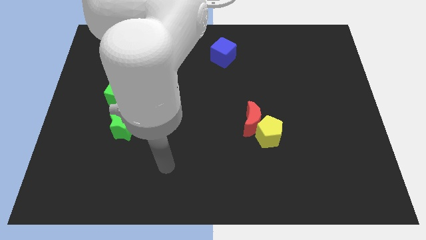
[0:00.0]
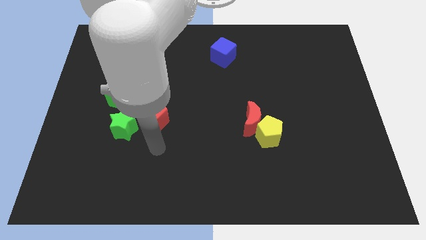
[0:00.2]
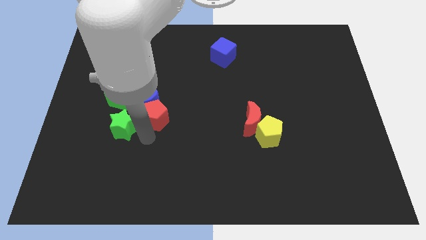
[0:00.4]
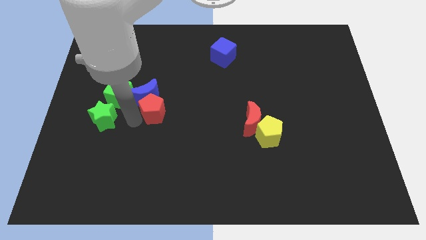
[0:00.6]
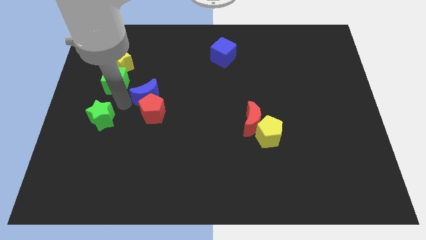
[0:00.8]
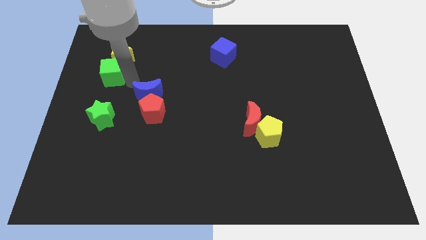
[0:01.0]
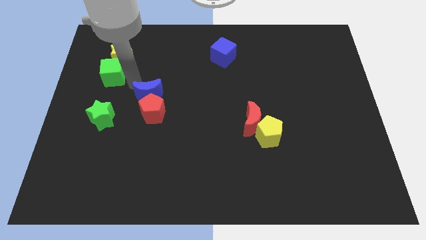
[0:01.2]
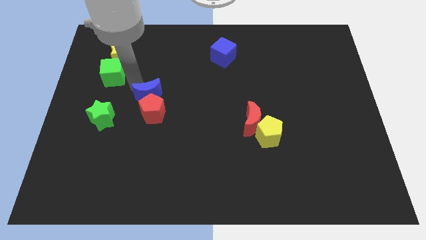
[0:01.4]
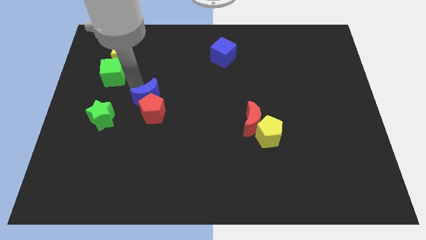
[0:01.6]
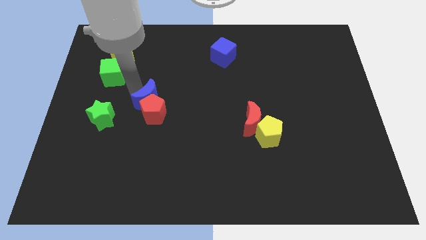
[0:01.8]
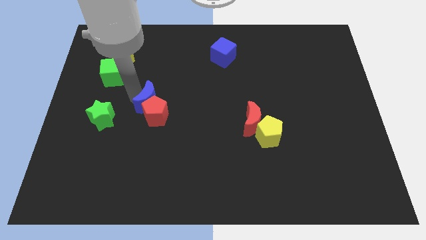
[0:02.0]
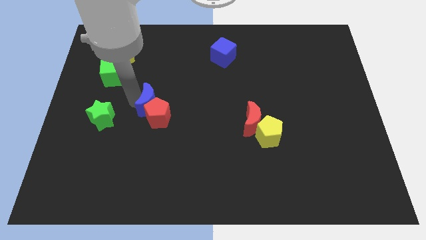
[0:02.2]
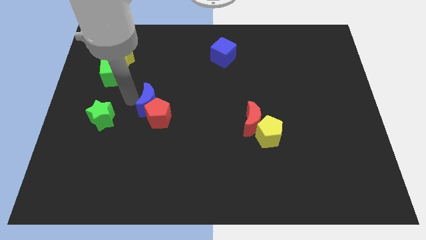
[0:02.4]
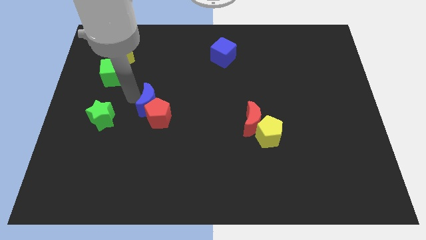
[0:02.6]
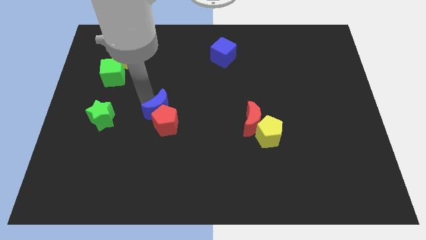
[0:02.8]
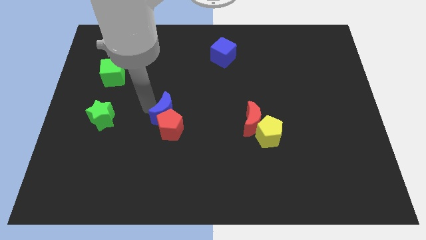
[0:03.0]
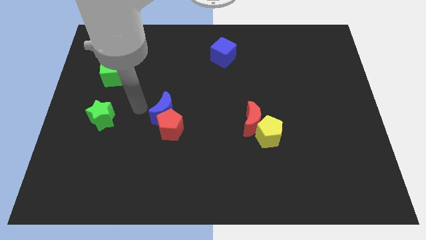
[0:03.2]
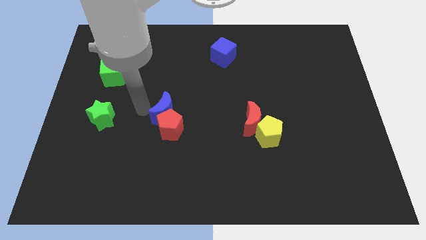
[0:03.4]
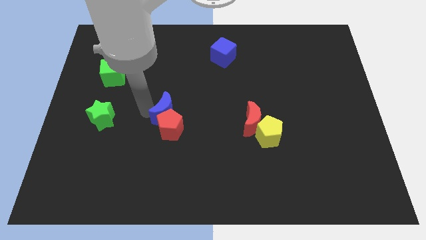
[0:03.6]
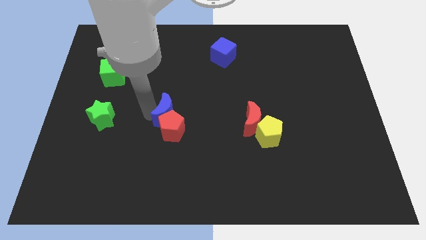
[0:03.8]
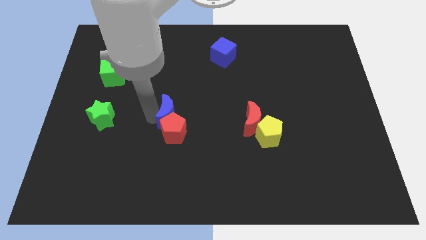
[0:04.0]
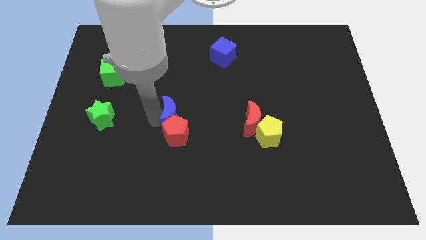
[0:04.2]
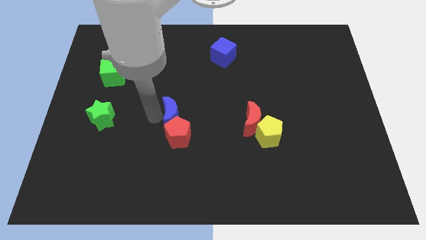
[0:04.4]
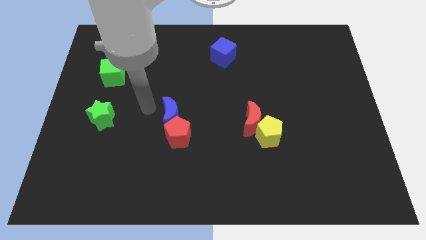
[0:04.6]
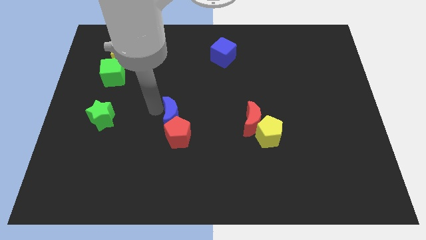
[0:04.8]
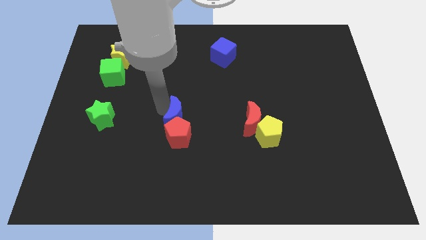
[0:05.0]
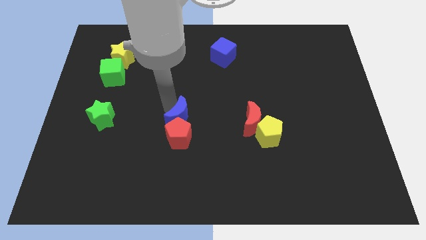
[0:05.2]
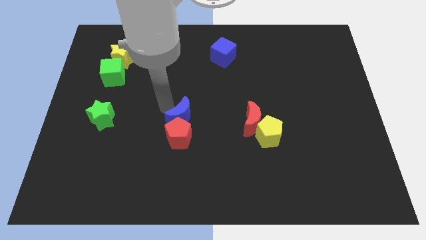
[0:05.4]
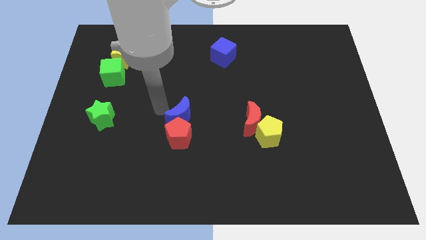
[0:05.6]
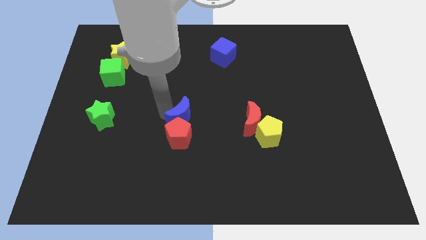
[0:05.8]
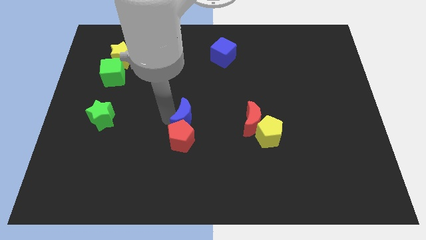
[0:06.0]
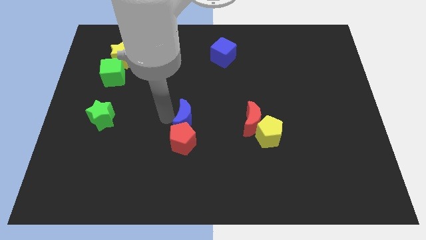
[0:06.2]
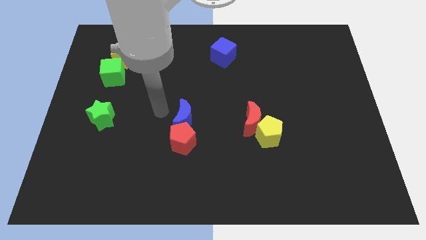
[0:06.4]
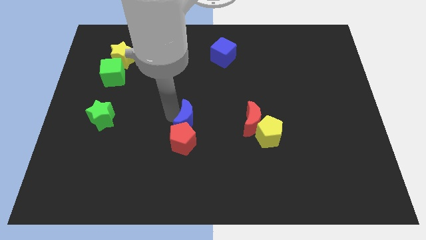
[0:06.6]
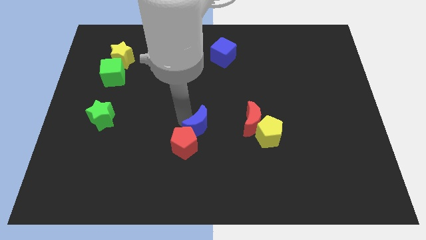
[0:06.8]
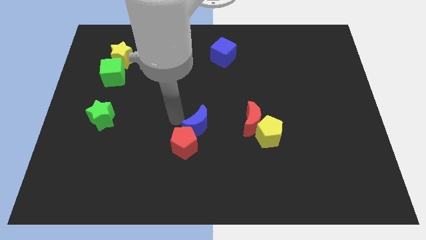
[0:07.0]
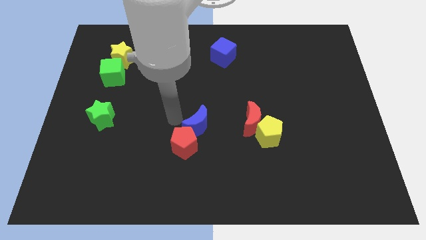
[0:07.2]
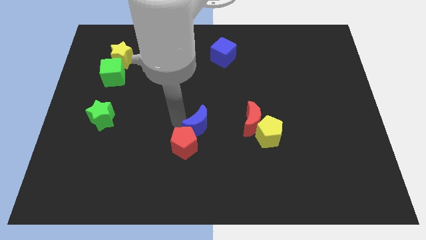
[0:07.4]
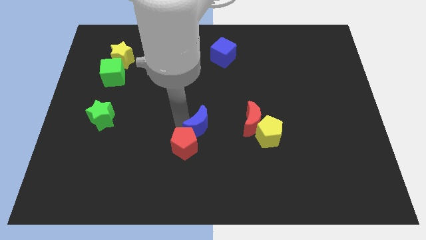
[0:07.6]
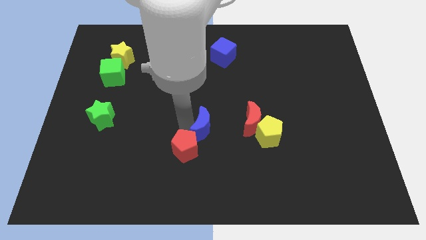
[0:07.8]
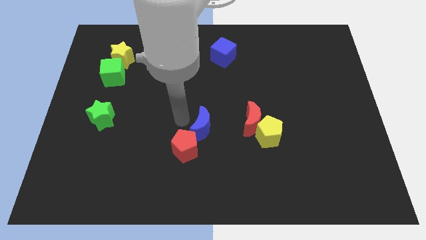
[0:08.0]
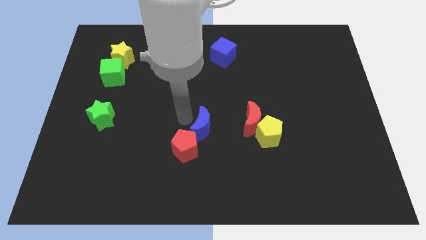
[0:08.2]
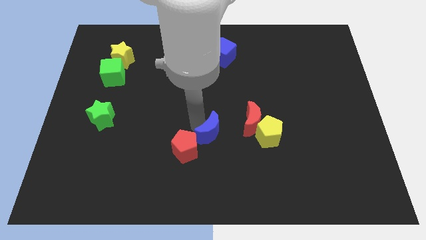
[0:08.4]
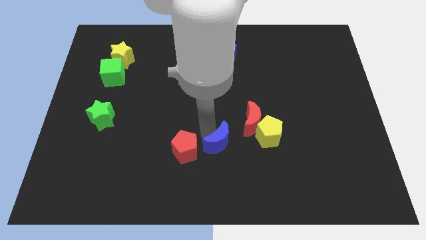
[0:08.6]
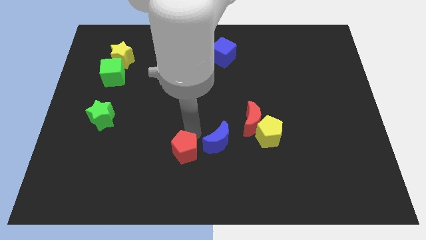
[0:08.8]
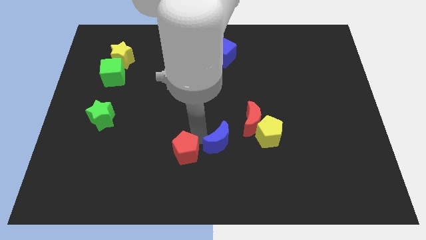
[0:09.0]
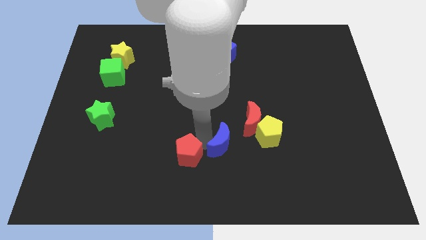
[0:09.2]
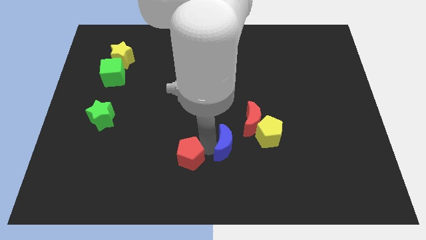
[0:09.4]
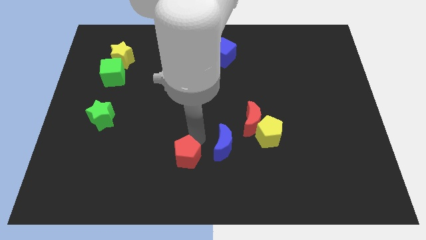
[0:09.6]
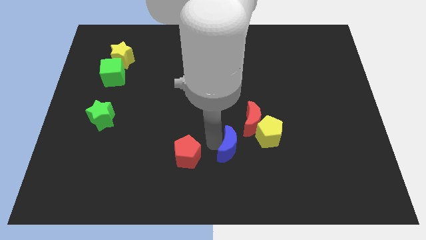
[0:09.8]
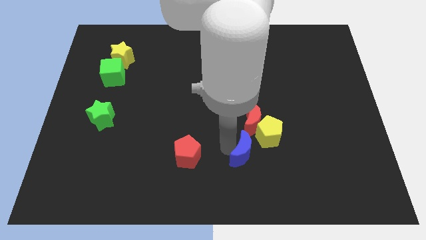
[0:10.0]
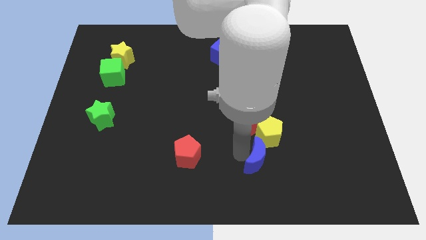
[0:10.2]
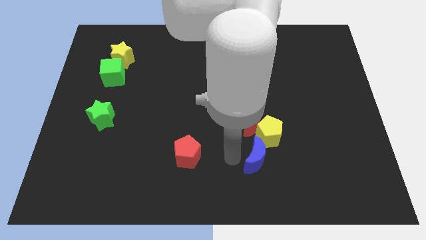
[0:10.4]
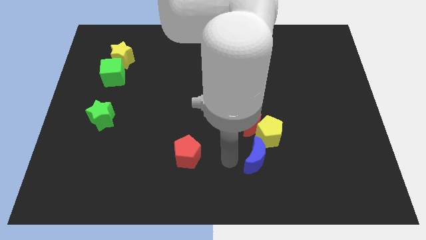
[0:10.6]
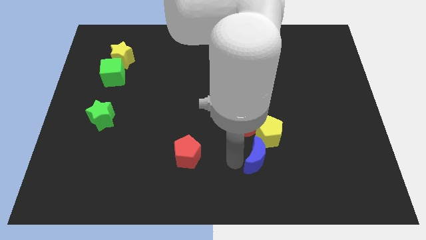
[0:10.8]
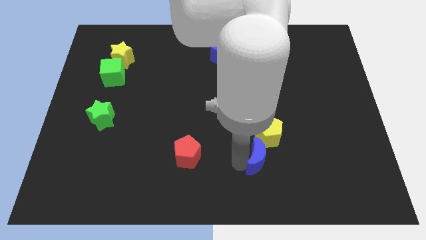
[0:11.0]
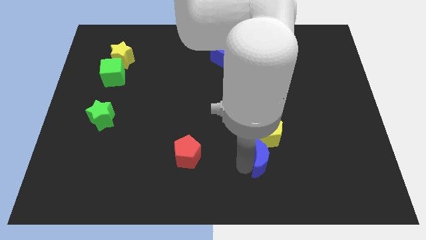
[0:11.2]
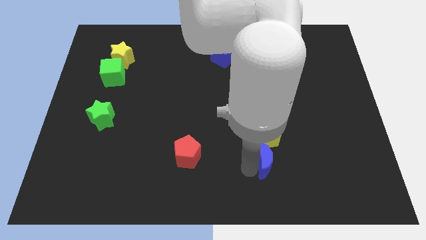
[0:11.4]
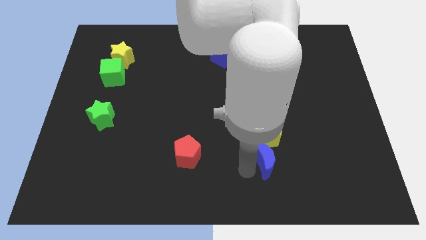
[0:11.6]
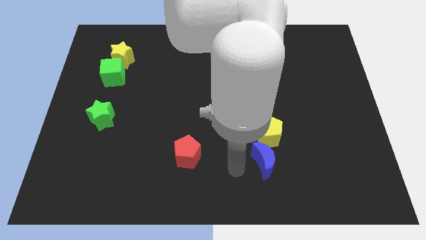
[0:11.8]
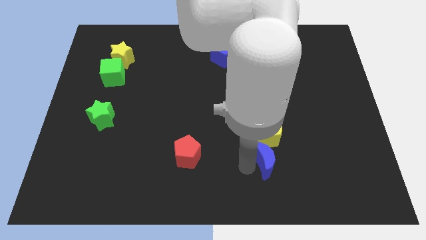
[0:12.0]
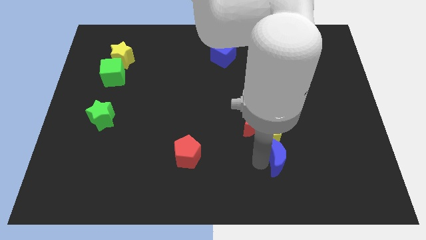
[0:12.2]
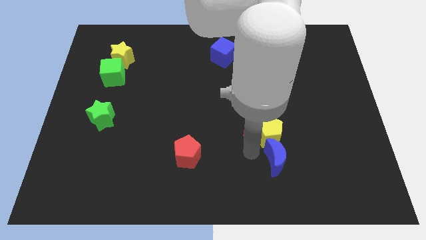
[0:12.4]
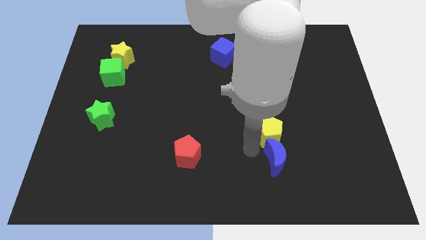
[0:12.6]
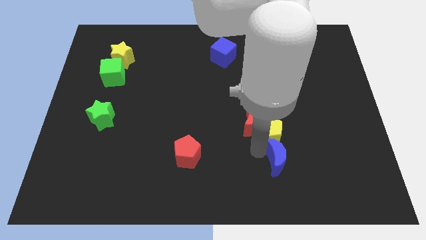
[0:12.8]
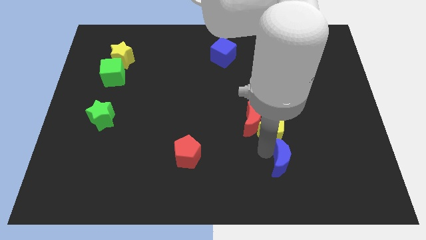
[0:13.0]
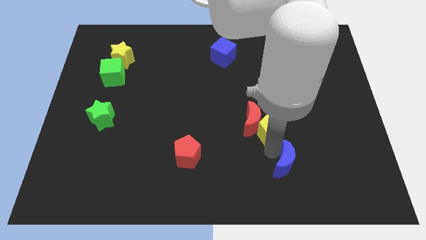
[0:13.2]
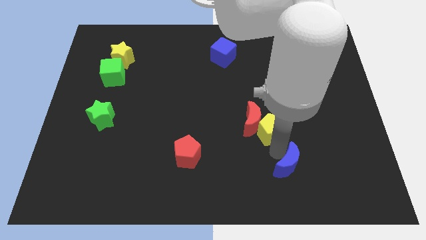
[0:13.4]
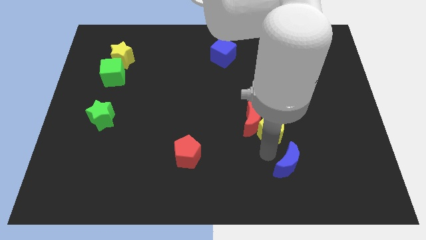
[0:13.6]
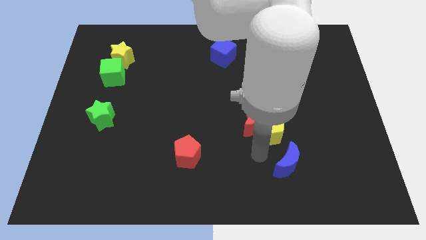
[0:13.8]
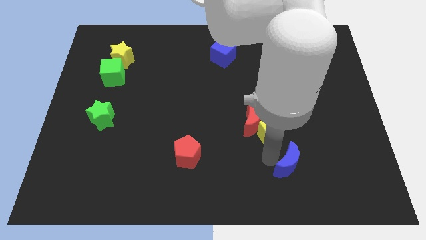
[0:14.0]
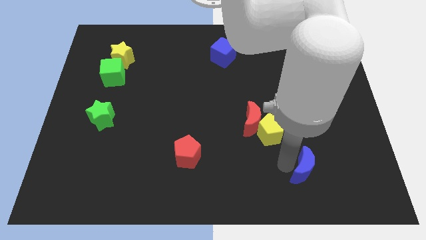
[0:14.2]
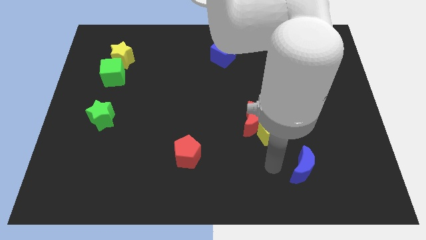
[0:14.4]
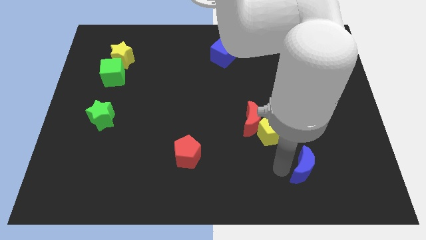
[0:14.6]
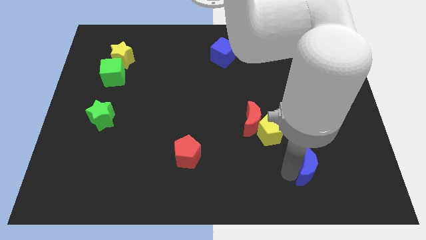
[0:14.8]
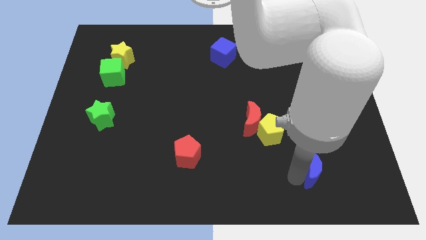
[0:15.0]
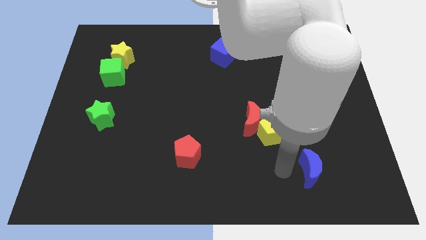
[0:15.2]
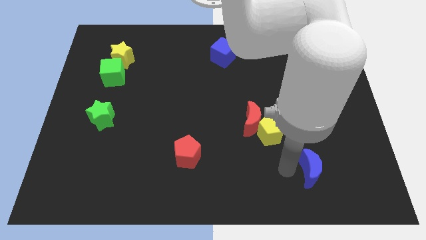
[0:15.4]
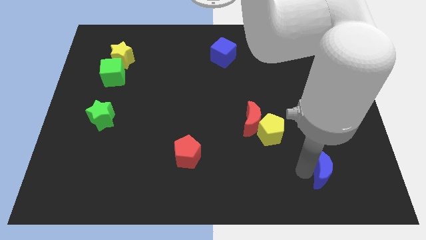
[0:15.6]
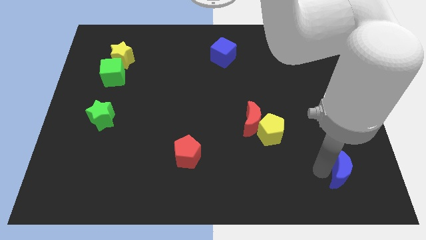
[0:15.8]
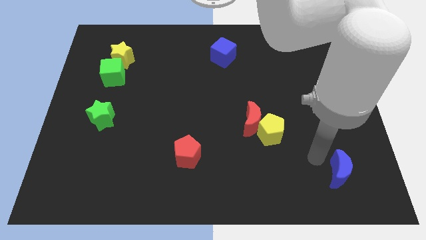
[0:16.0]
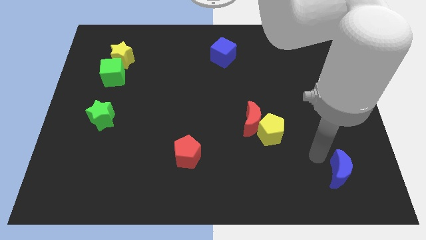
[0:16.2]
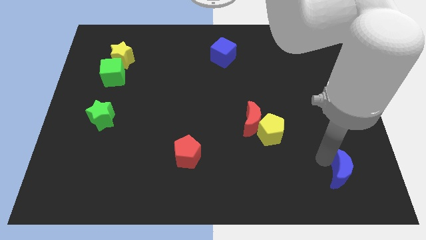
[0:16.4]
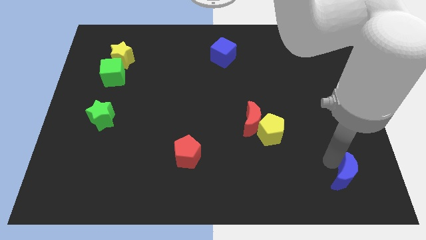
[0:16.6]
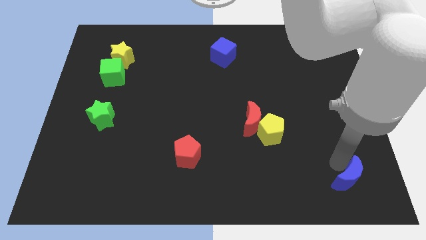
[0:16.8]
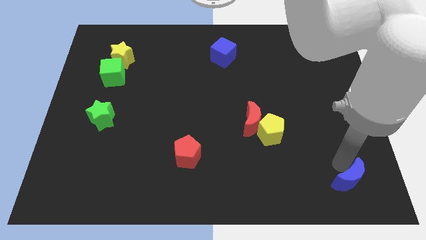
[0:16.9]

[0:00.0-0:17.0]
slide the blue moon to the bottom right
